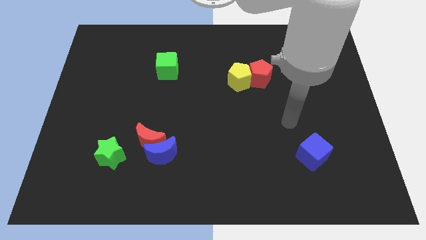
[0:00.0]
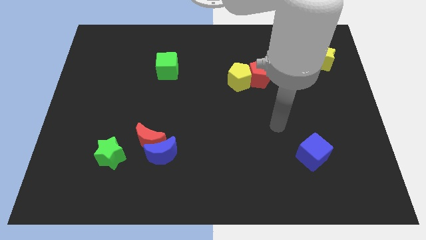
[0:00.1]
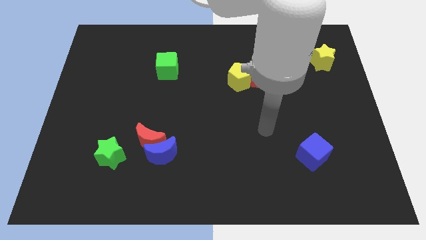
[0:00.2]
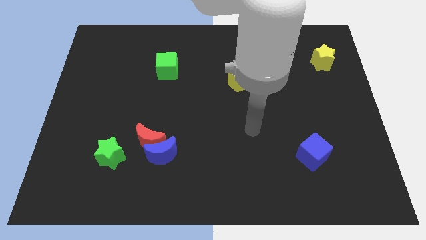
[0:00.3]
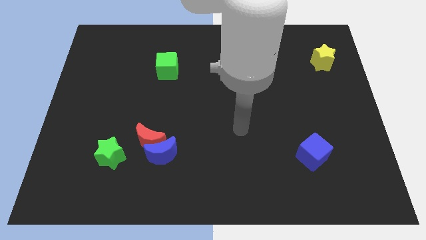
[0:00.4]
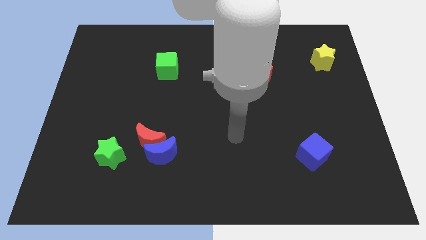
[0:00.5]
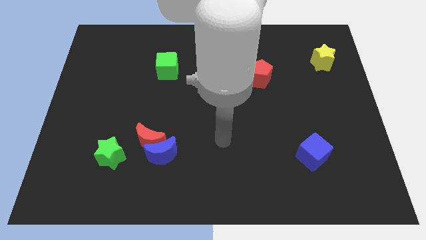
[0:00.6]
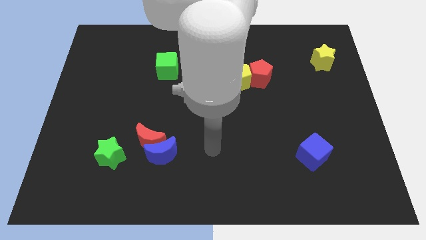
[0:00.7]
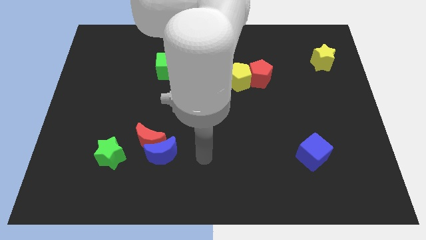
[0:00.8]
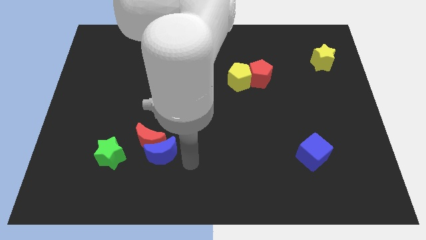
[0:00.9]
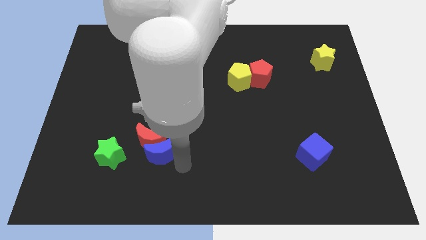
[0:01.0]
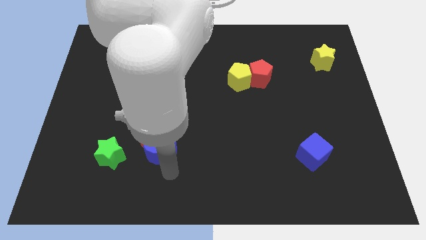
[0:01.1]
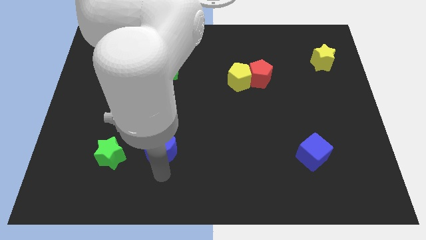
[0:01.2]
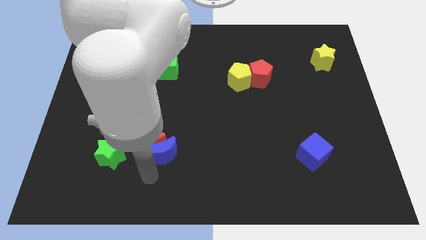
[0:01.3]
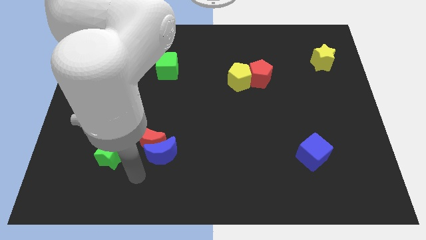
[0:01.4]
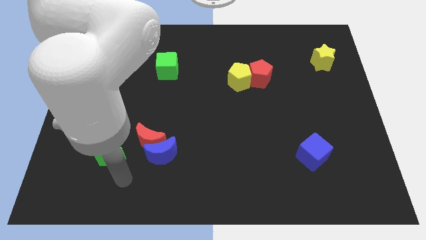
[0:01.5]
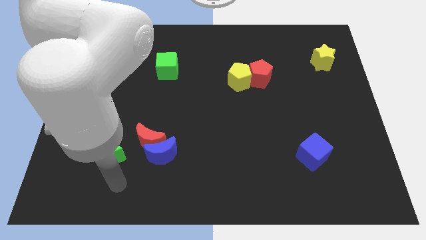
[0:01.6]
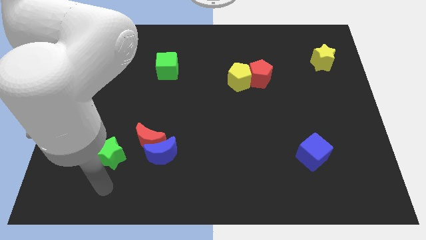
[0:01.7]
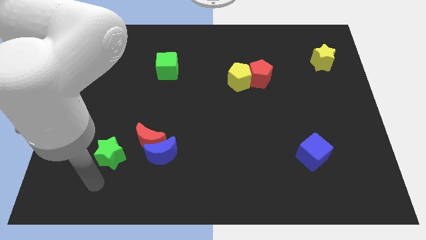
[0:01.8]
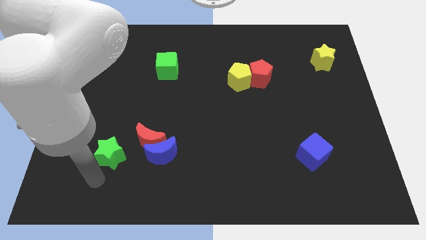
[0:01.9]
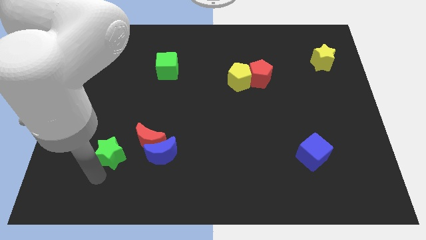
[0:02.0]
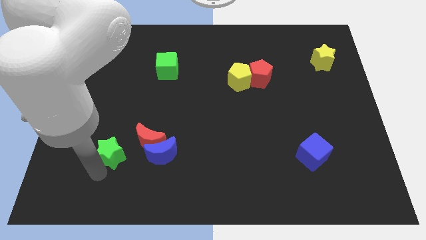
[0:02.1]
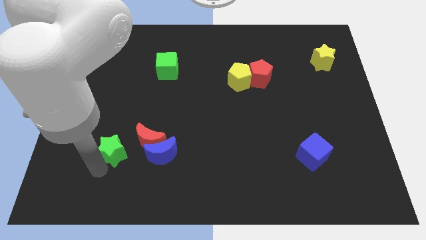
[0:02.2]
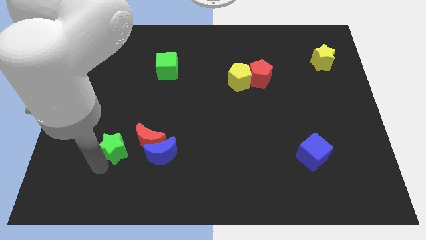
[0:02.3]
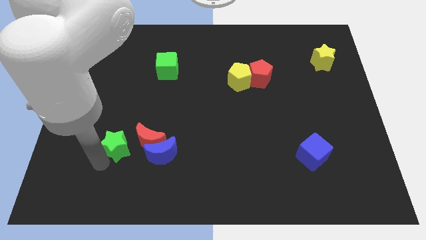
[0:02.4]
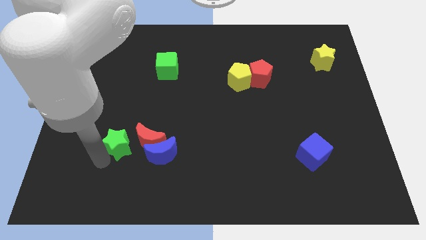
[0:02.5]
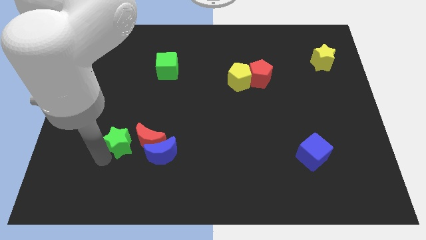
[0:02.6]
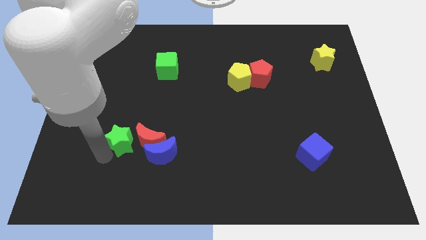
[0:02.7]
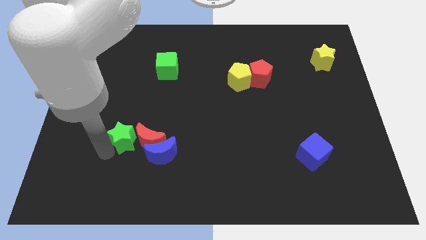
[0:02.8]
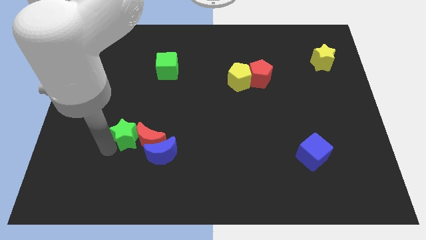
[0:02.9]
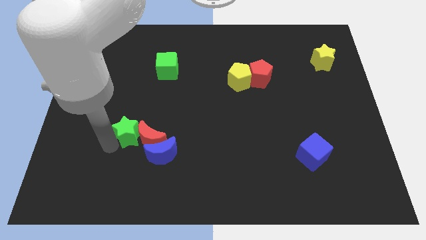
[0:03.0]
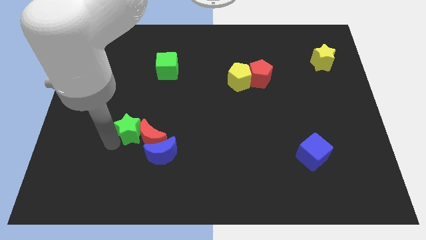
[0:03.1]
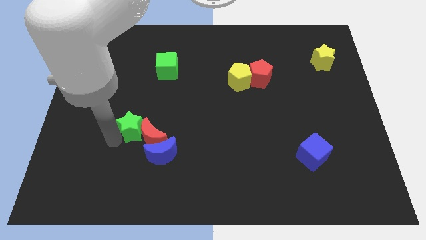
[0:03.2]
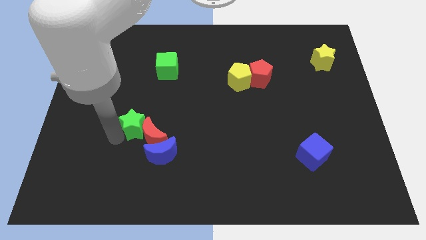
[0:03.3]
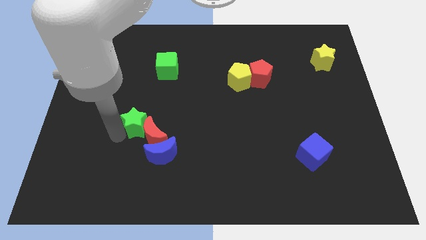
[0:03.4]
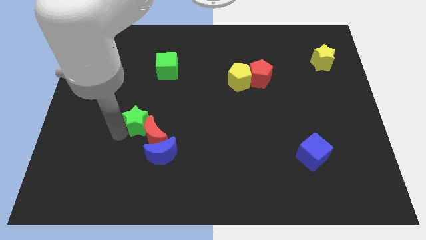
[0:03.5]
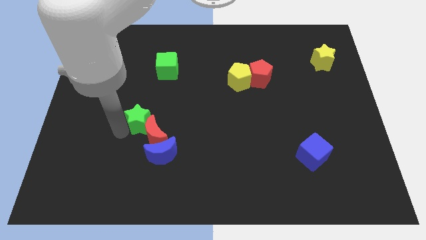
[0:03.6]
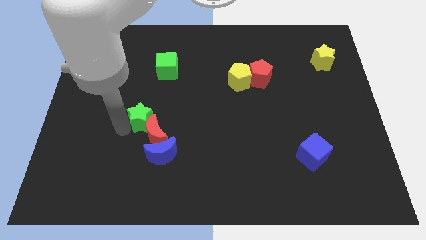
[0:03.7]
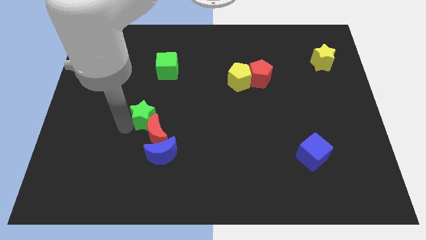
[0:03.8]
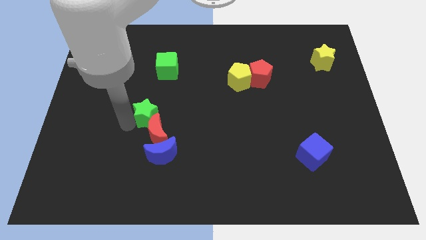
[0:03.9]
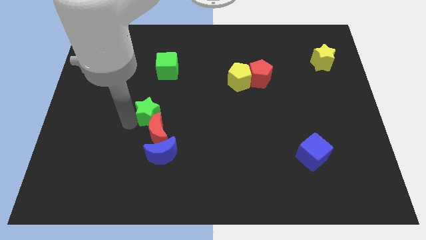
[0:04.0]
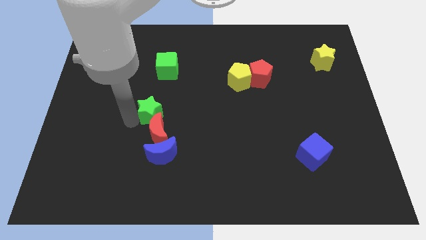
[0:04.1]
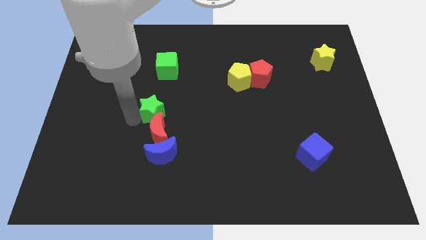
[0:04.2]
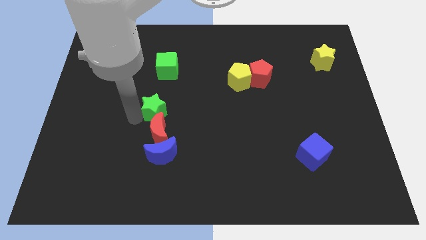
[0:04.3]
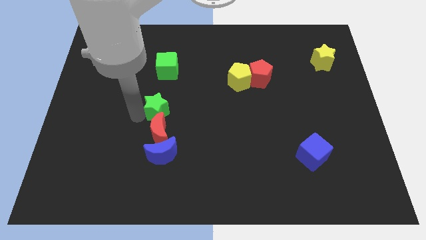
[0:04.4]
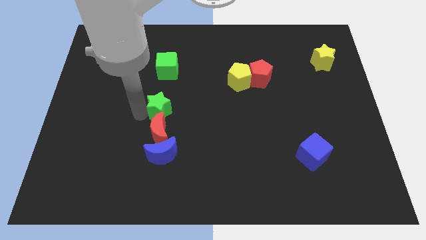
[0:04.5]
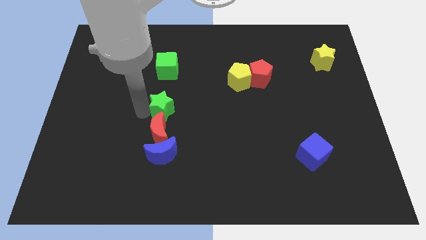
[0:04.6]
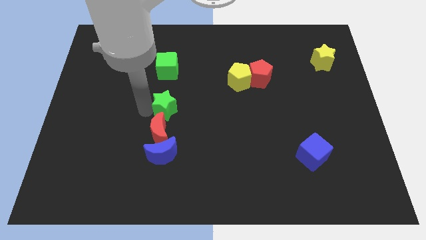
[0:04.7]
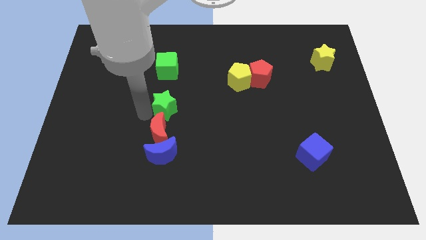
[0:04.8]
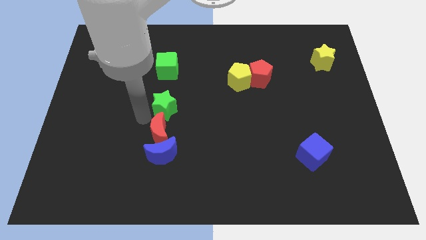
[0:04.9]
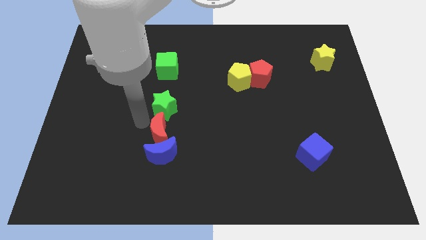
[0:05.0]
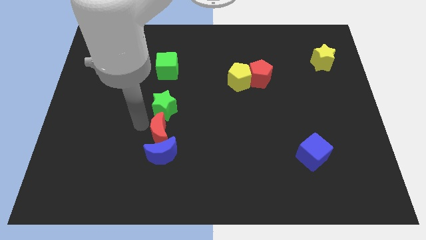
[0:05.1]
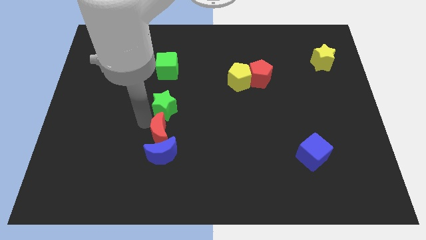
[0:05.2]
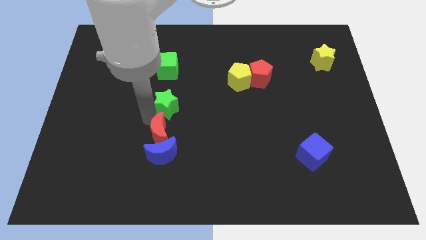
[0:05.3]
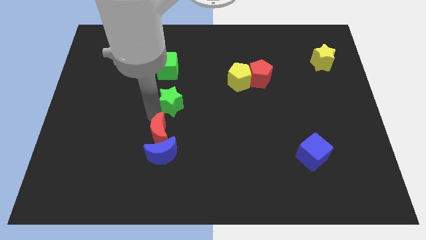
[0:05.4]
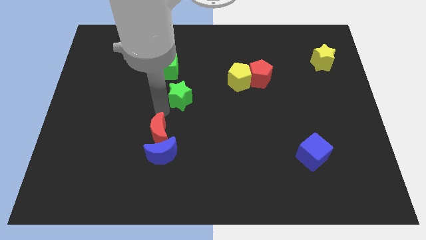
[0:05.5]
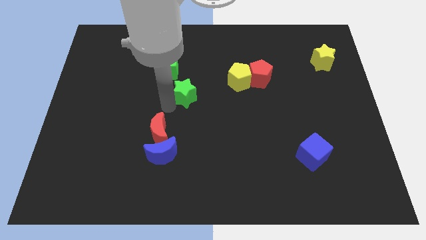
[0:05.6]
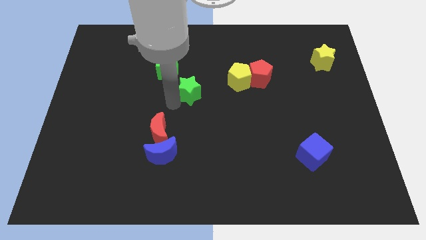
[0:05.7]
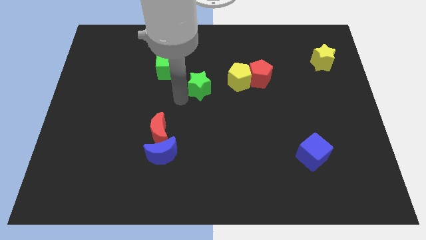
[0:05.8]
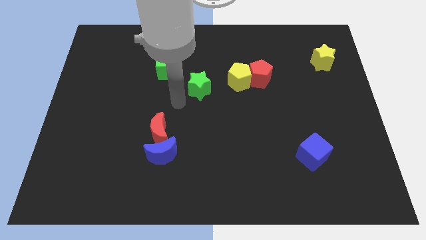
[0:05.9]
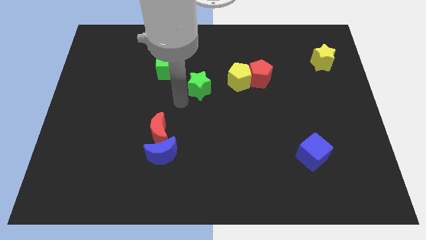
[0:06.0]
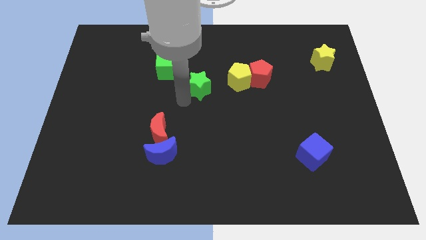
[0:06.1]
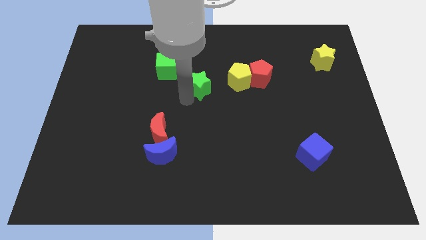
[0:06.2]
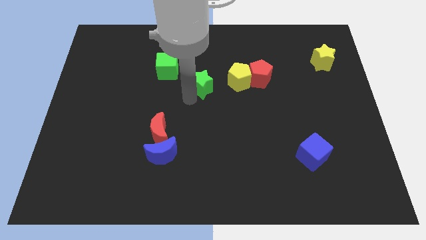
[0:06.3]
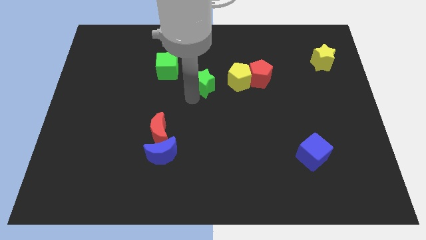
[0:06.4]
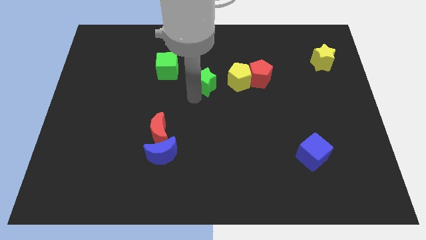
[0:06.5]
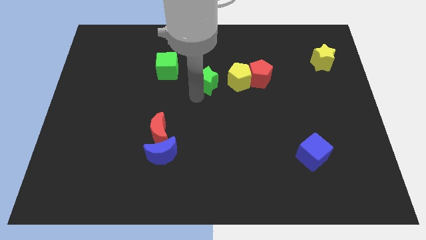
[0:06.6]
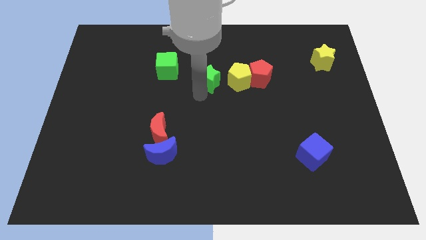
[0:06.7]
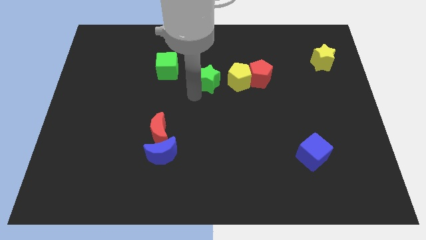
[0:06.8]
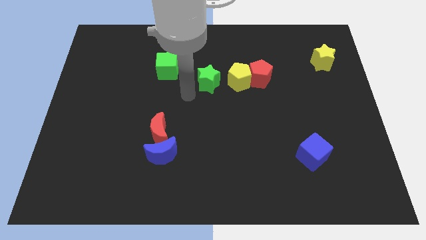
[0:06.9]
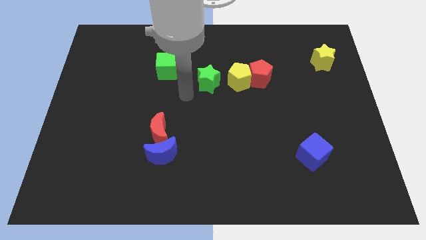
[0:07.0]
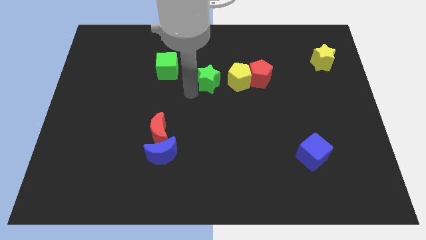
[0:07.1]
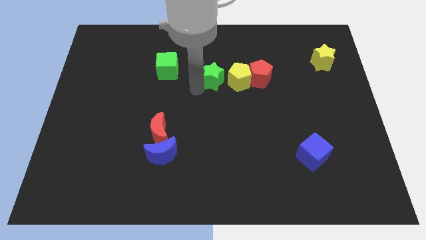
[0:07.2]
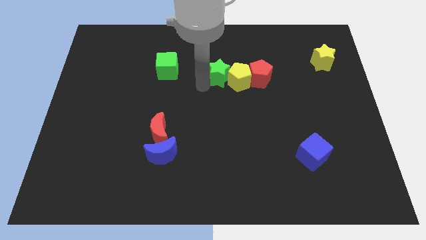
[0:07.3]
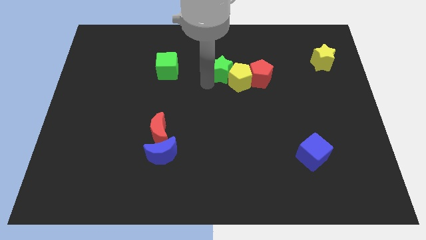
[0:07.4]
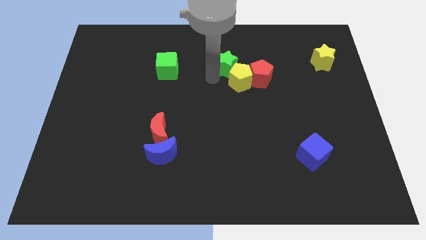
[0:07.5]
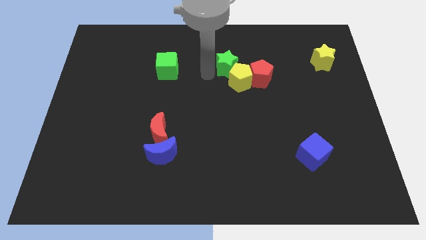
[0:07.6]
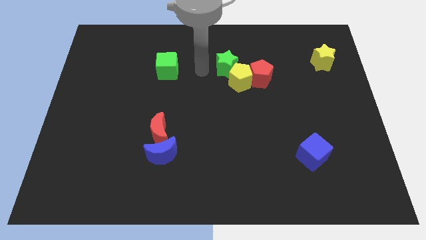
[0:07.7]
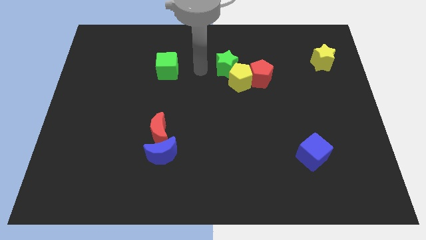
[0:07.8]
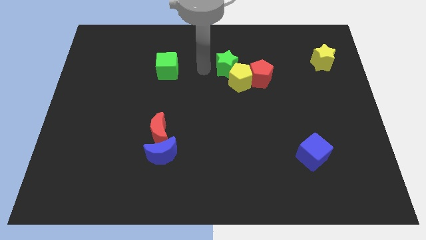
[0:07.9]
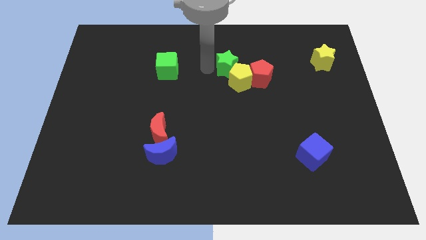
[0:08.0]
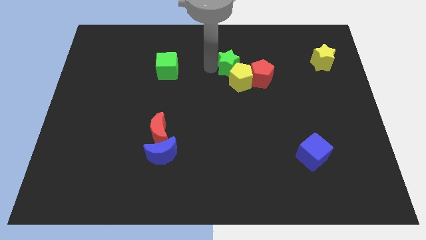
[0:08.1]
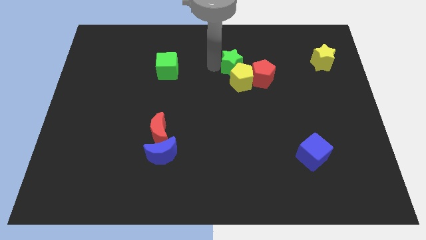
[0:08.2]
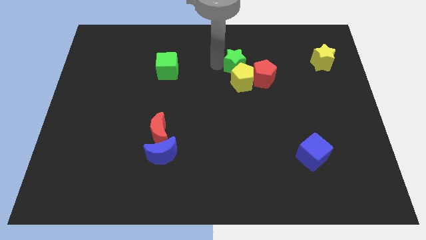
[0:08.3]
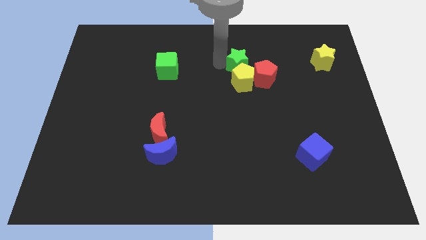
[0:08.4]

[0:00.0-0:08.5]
put the green star diagonally up and to the right of the yellow pentagon
